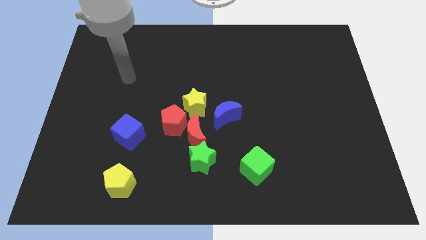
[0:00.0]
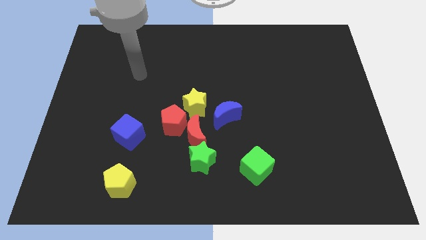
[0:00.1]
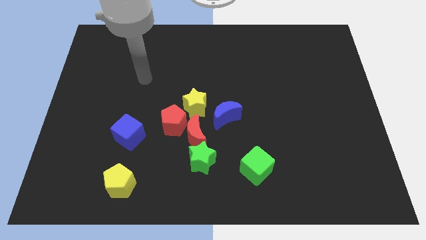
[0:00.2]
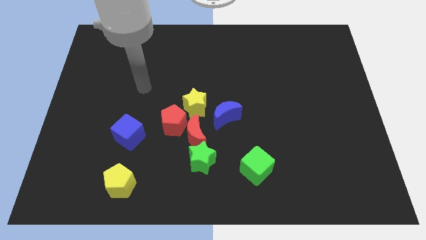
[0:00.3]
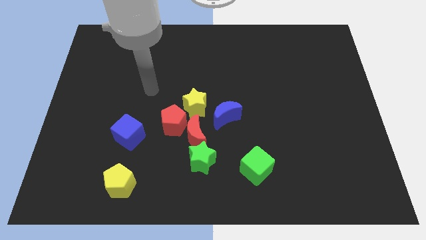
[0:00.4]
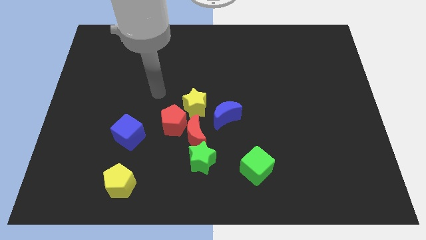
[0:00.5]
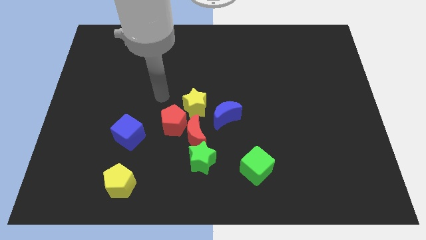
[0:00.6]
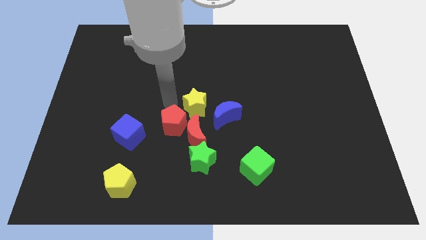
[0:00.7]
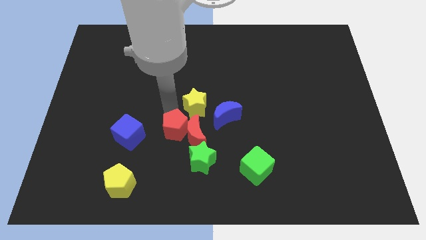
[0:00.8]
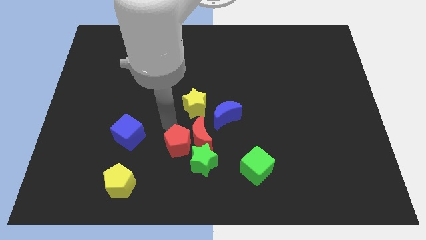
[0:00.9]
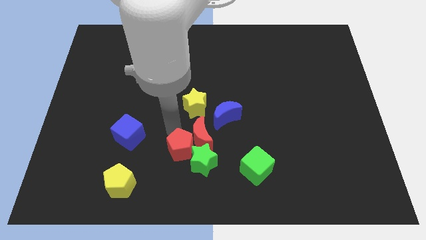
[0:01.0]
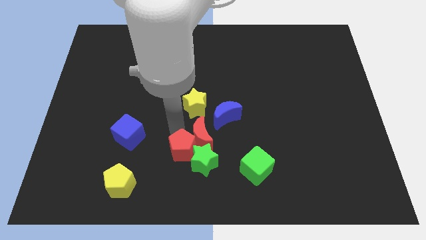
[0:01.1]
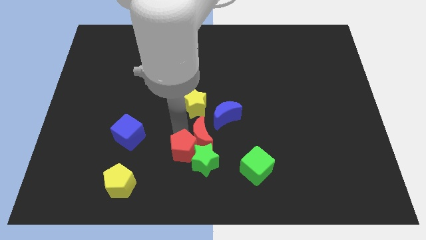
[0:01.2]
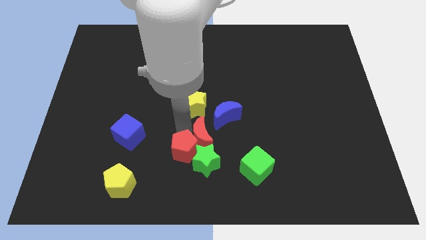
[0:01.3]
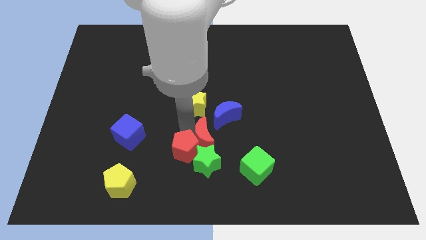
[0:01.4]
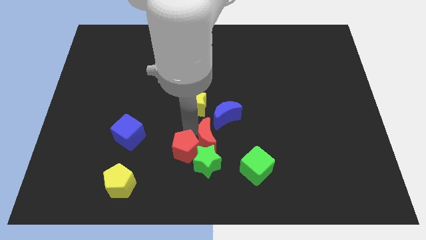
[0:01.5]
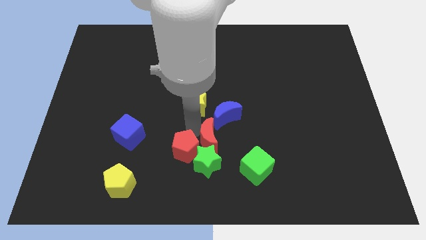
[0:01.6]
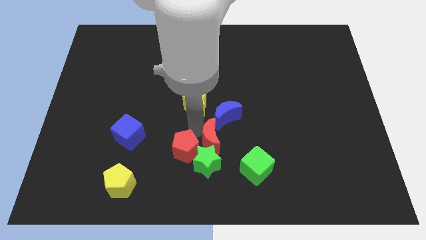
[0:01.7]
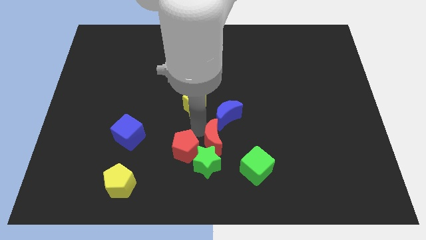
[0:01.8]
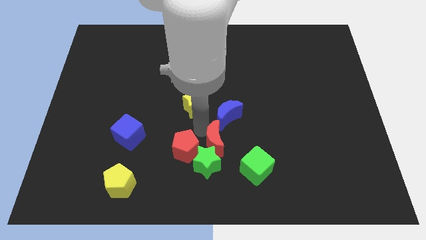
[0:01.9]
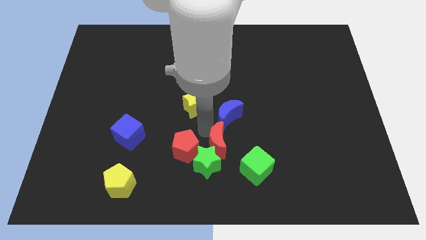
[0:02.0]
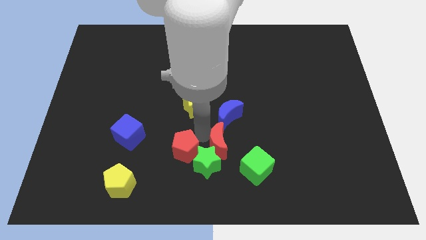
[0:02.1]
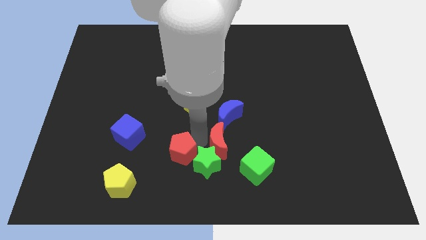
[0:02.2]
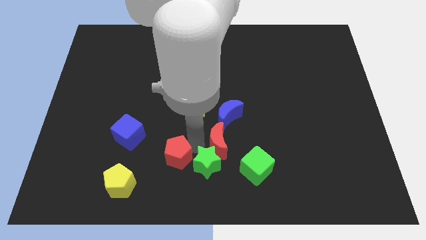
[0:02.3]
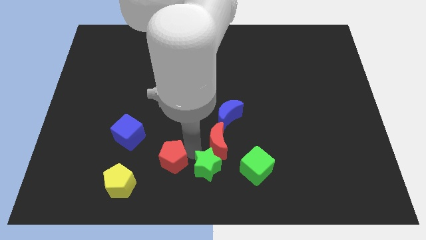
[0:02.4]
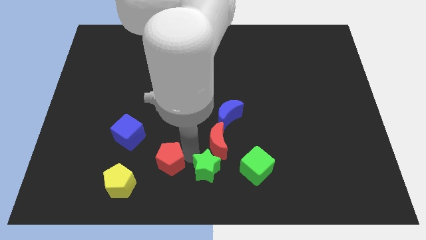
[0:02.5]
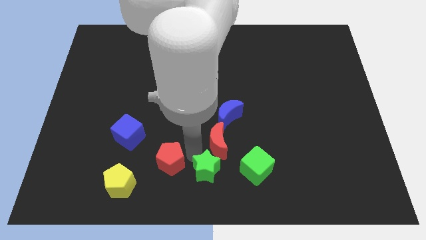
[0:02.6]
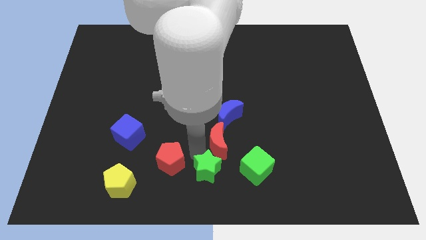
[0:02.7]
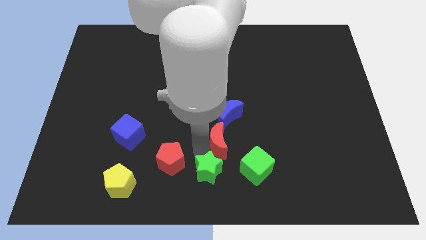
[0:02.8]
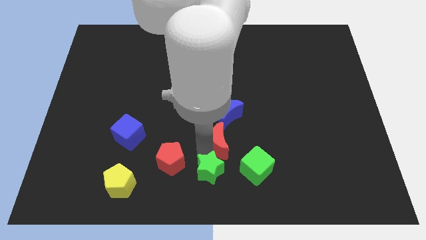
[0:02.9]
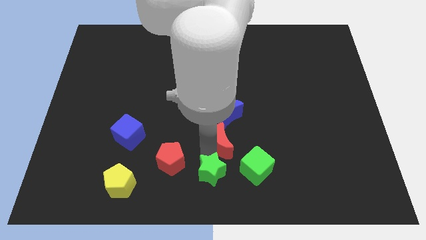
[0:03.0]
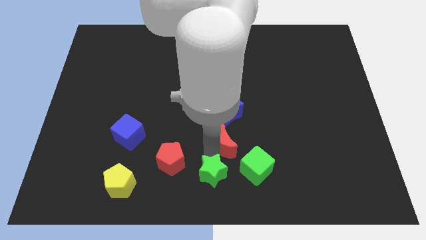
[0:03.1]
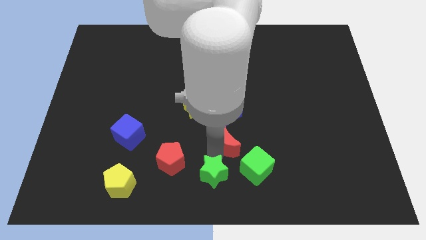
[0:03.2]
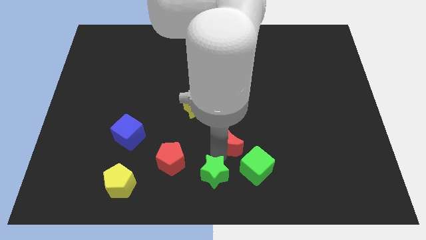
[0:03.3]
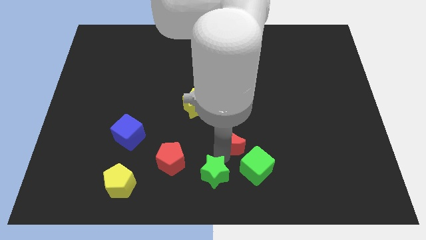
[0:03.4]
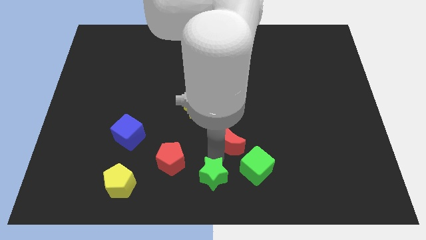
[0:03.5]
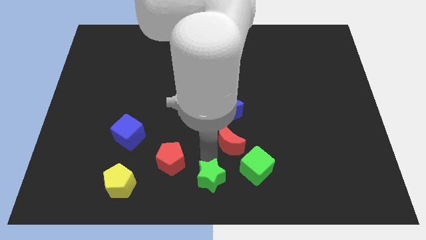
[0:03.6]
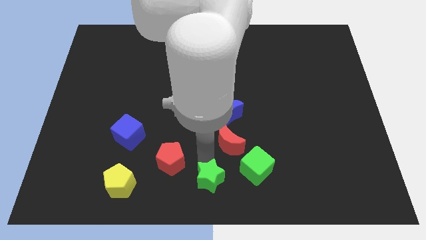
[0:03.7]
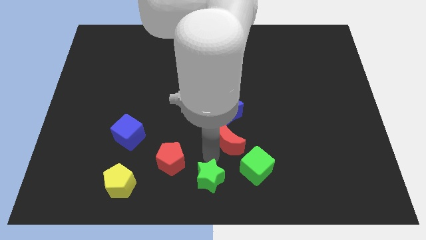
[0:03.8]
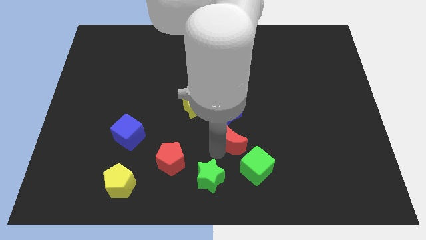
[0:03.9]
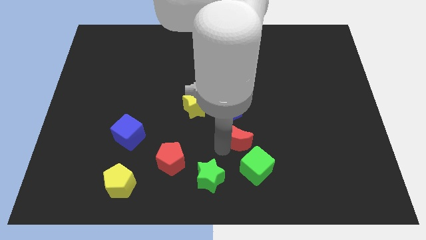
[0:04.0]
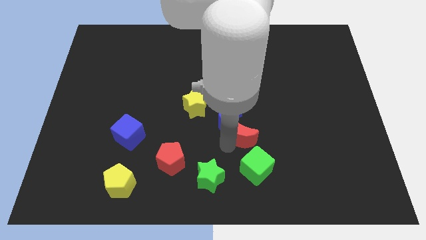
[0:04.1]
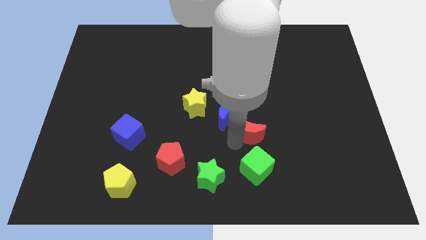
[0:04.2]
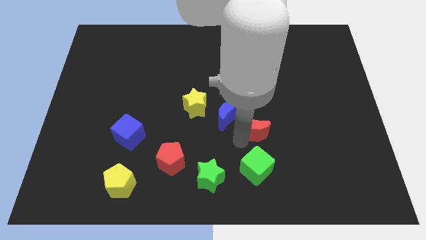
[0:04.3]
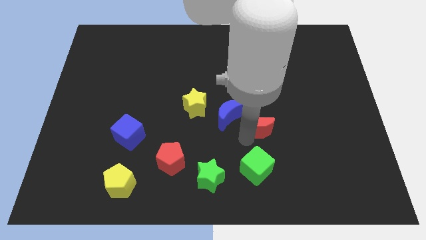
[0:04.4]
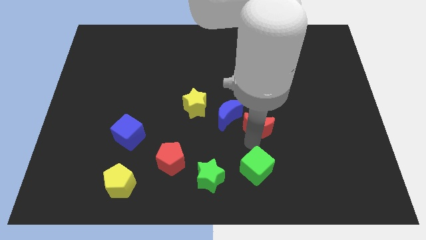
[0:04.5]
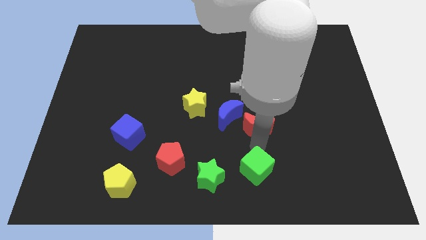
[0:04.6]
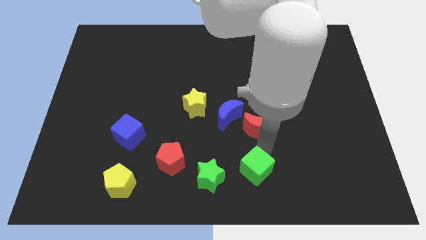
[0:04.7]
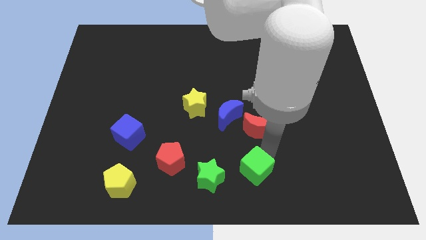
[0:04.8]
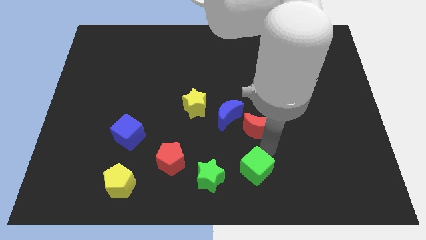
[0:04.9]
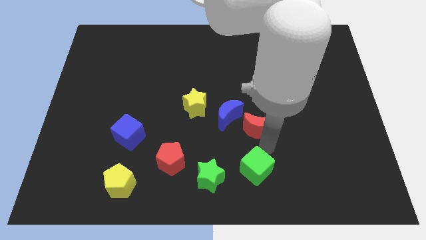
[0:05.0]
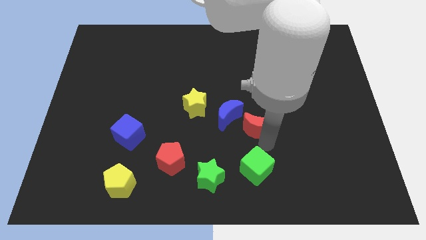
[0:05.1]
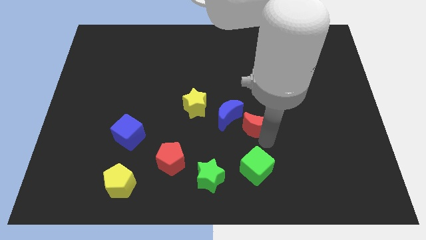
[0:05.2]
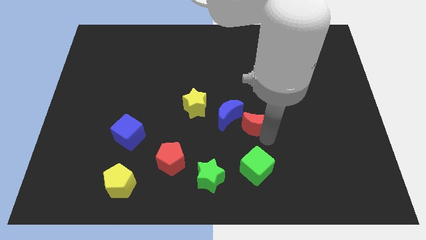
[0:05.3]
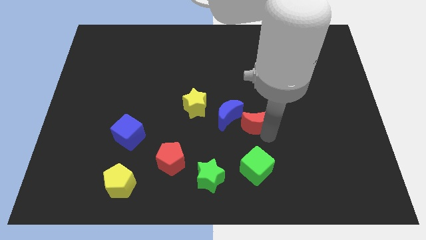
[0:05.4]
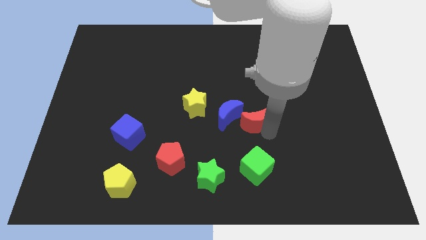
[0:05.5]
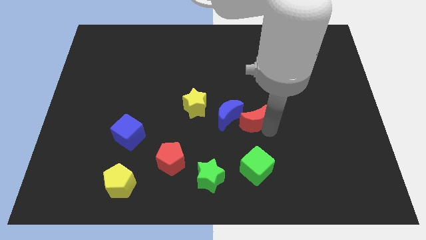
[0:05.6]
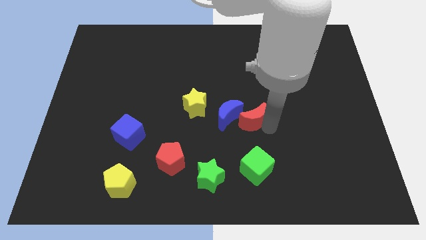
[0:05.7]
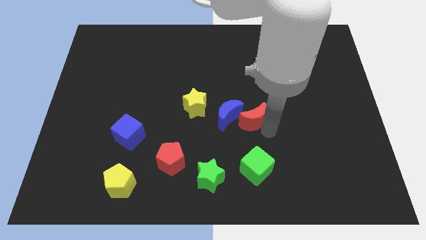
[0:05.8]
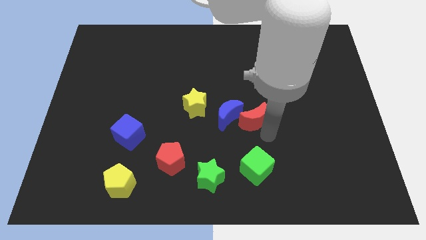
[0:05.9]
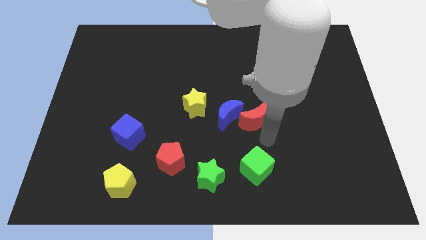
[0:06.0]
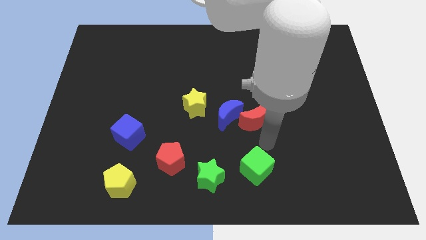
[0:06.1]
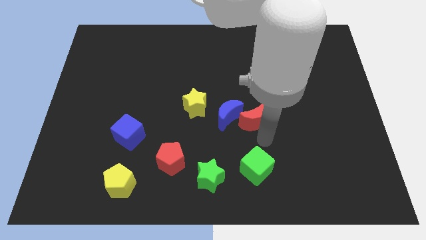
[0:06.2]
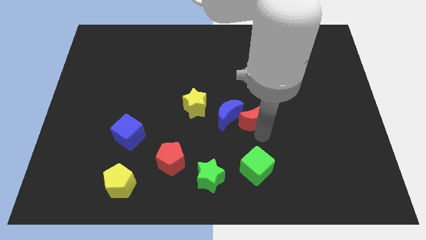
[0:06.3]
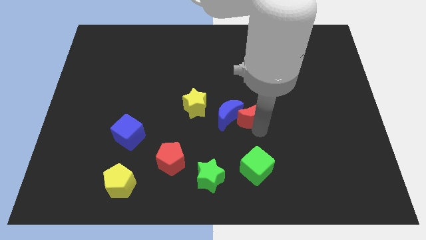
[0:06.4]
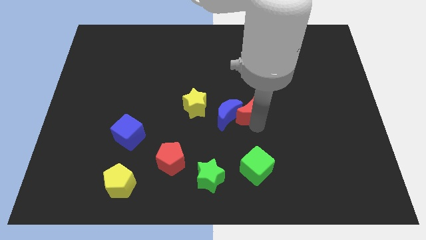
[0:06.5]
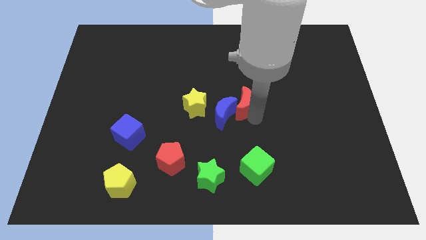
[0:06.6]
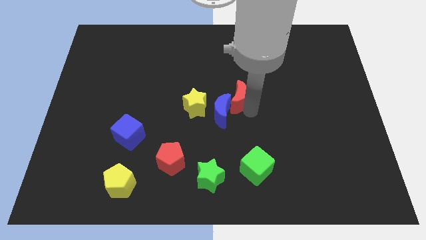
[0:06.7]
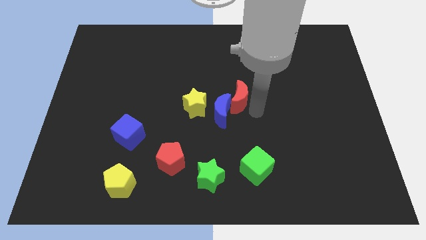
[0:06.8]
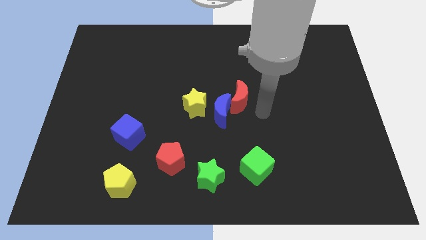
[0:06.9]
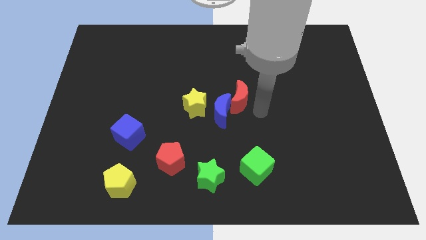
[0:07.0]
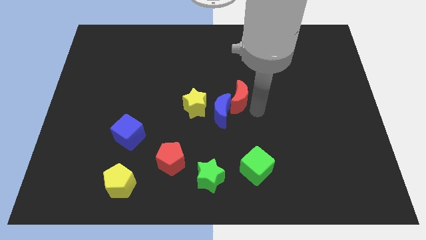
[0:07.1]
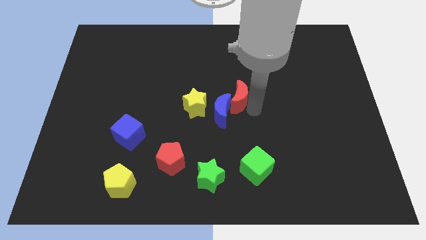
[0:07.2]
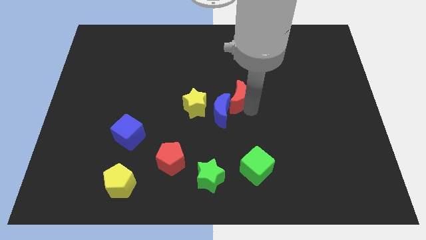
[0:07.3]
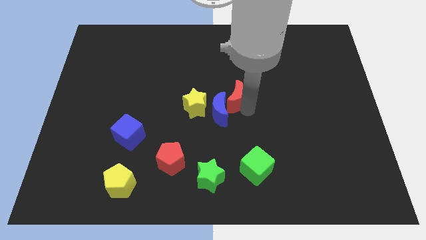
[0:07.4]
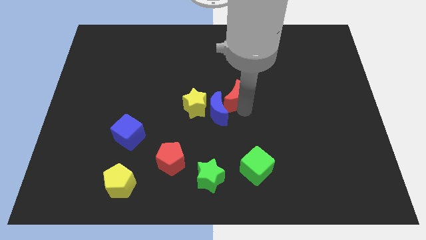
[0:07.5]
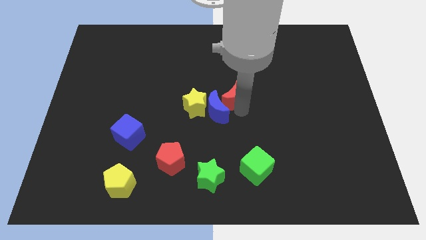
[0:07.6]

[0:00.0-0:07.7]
push the red moon diagonally up and to the right of the yellow star
